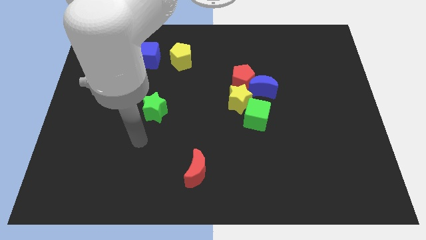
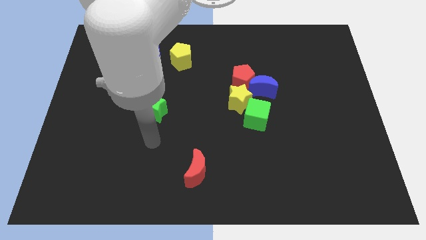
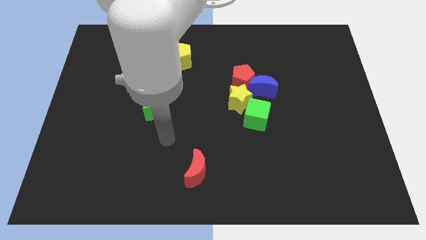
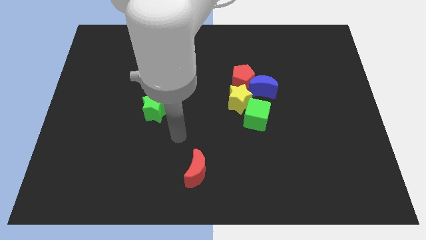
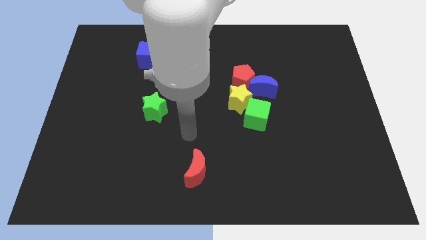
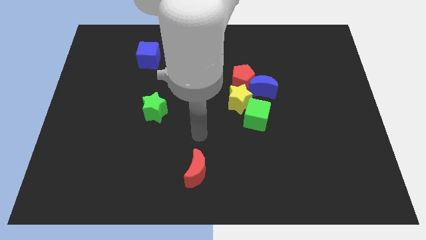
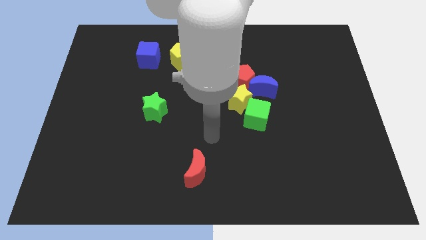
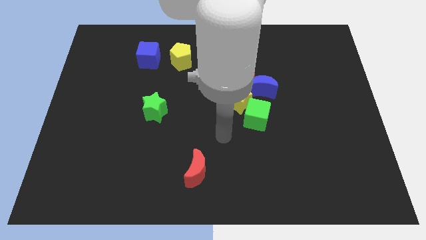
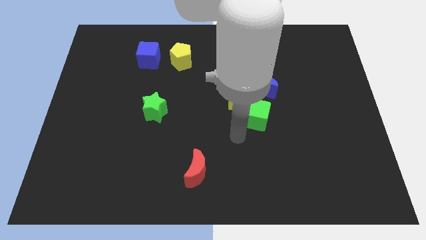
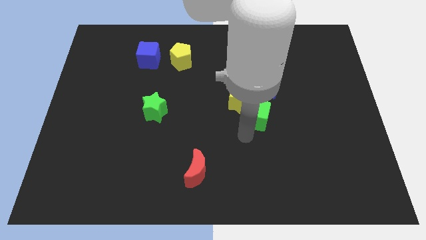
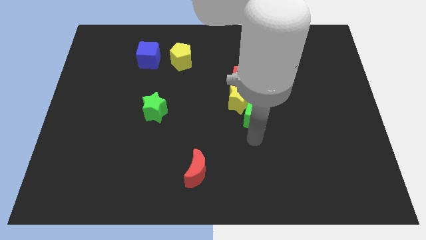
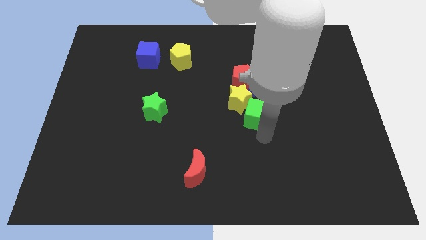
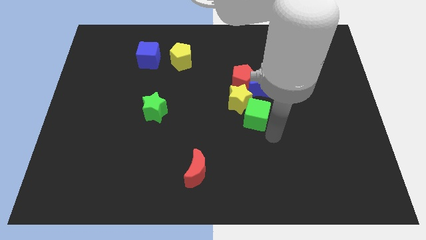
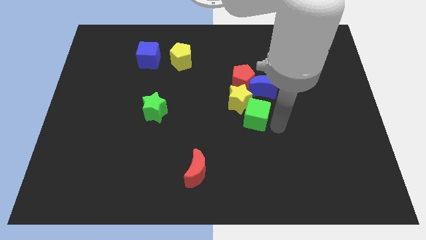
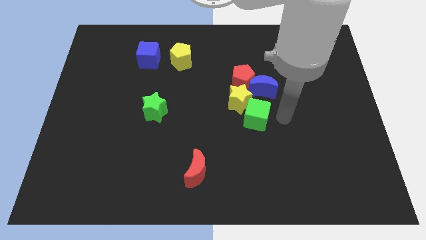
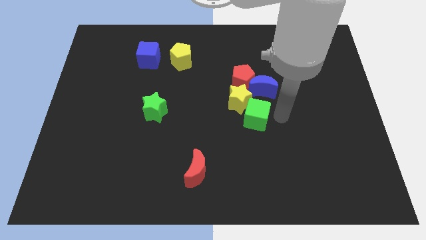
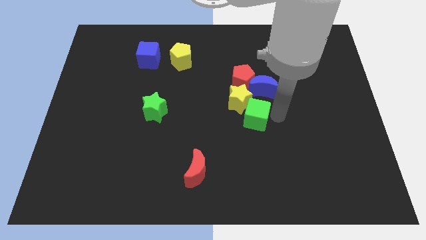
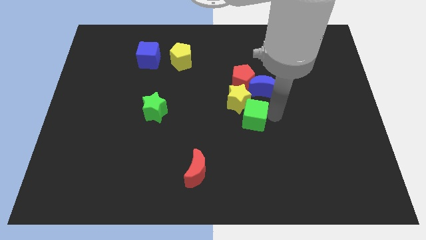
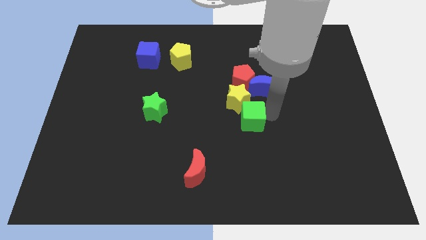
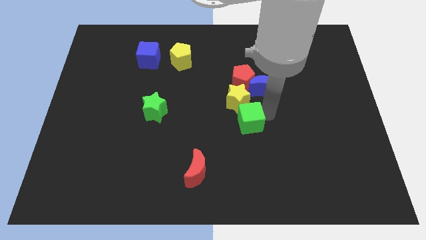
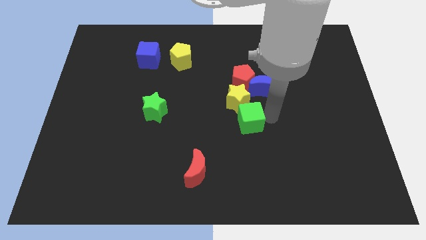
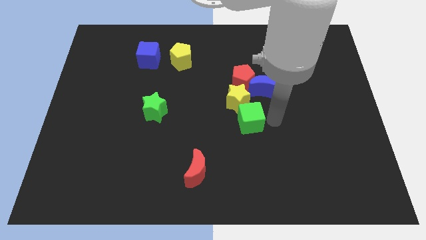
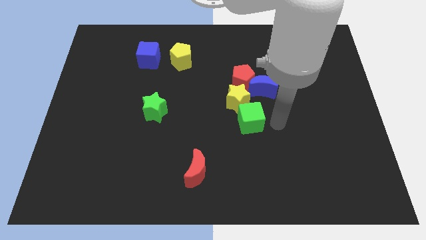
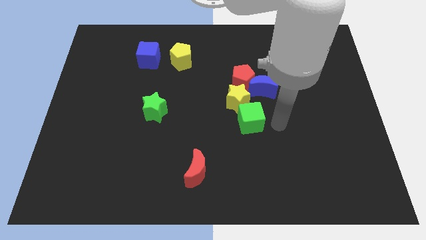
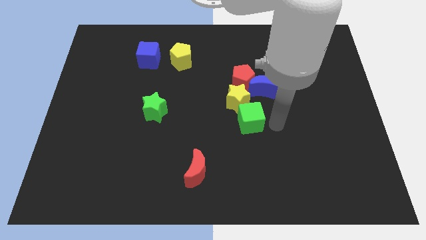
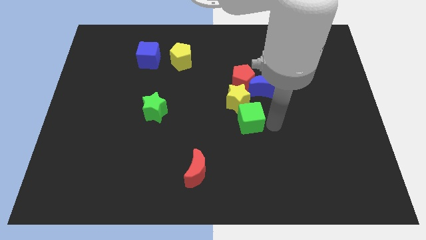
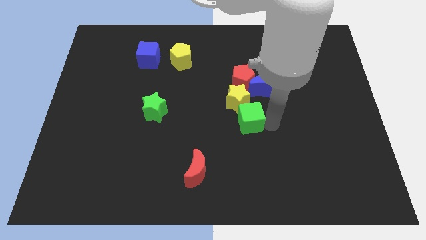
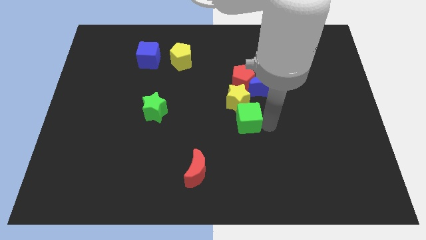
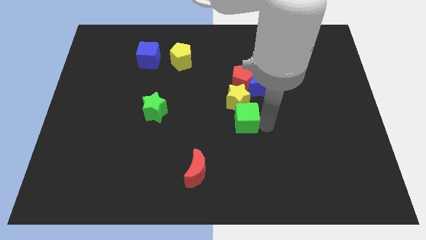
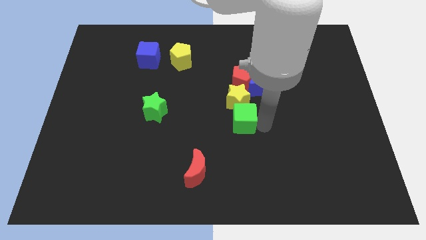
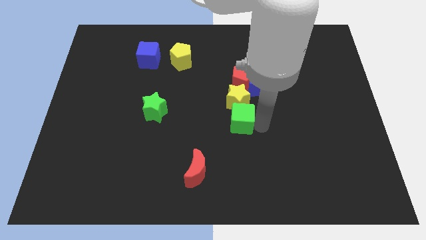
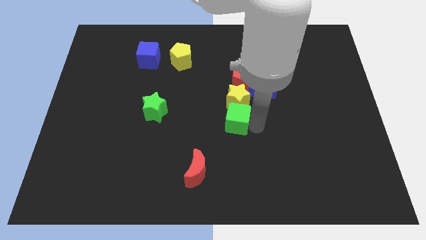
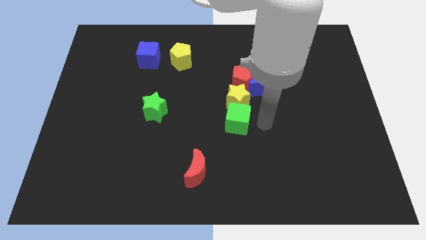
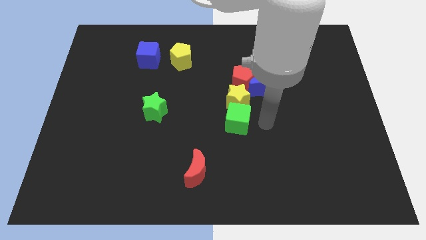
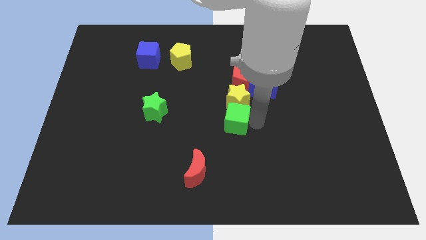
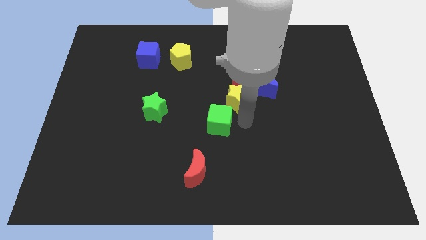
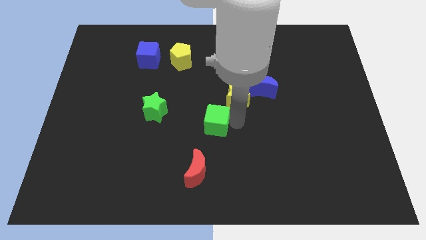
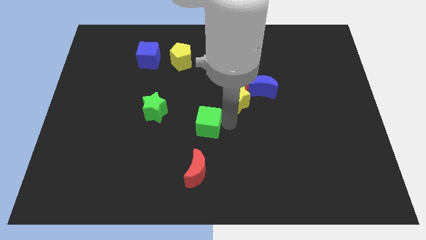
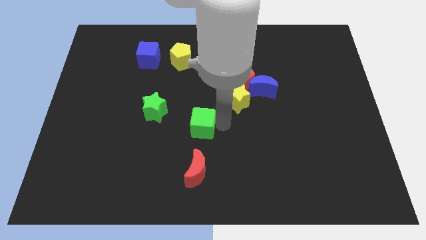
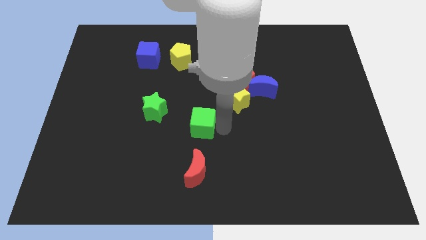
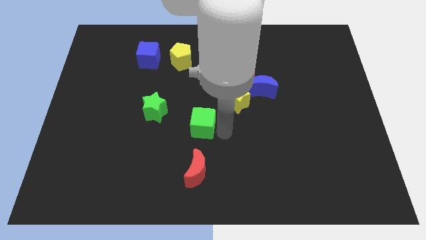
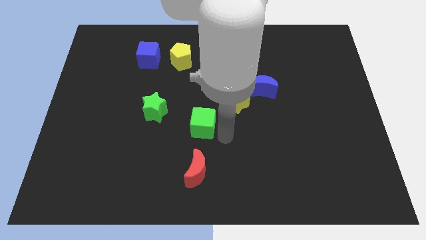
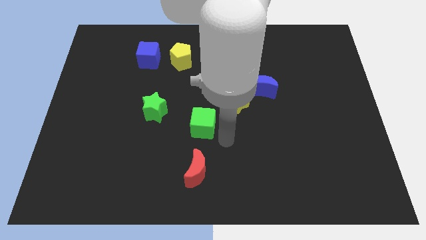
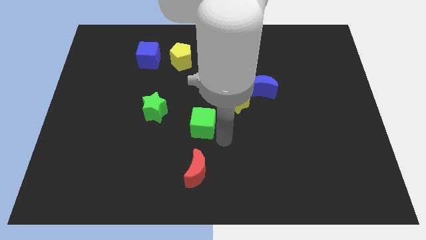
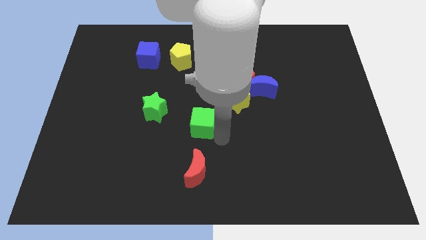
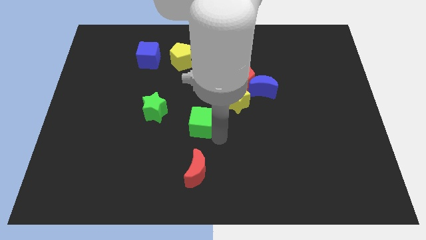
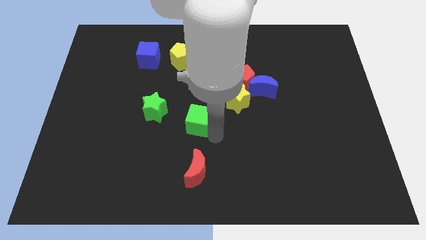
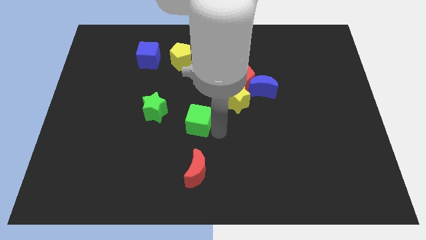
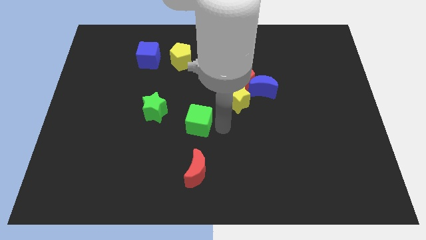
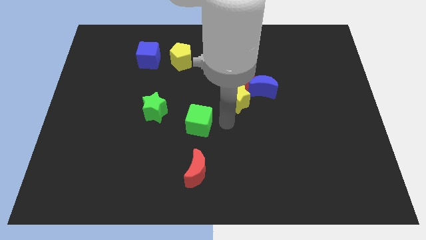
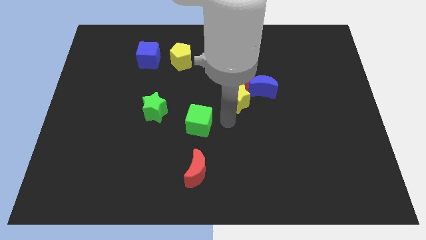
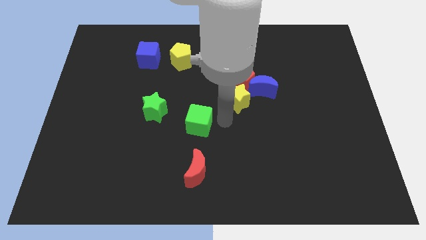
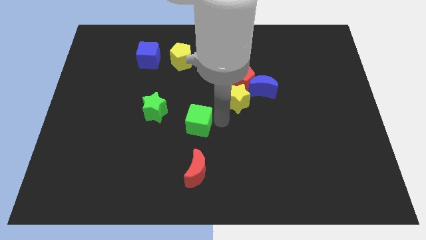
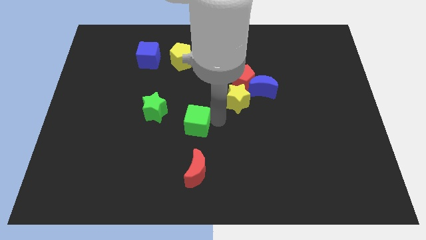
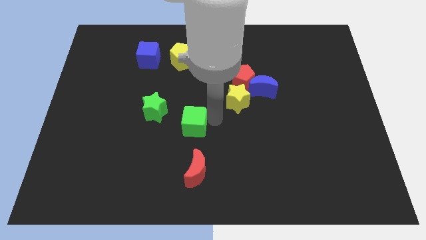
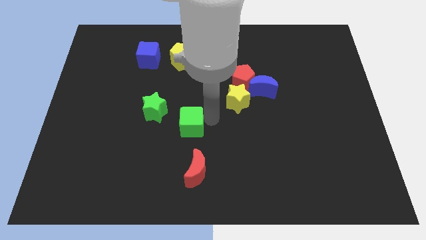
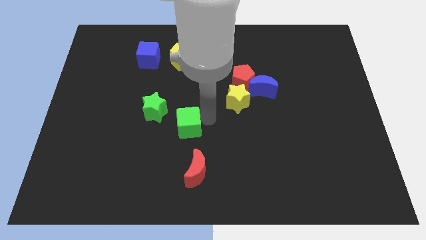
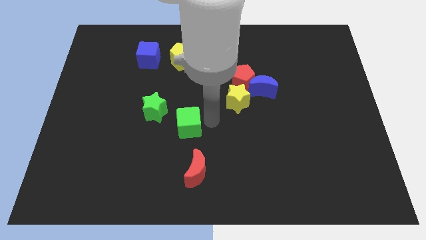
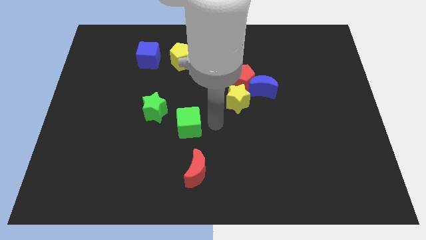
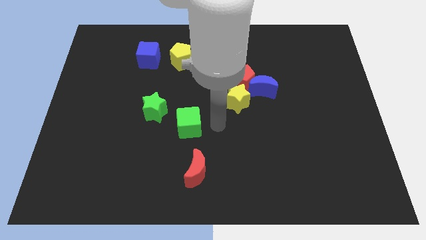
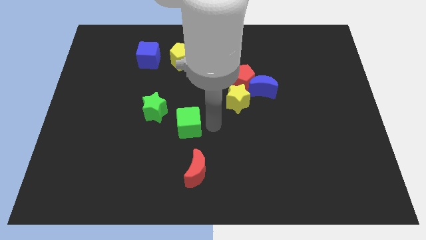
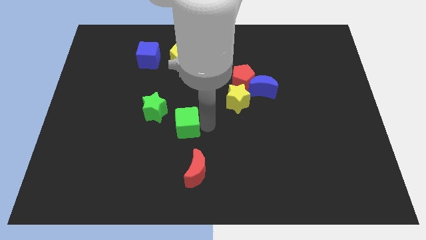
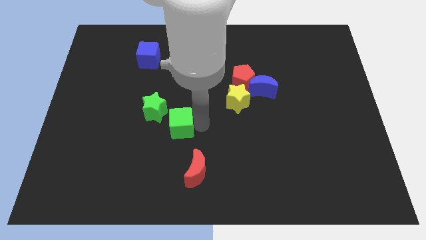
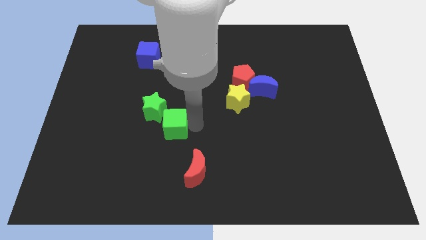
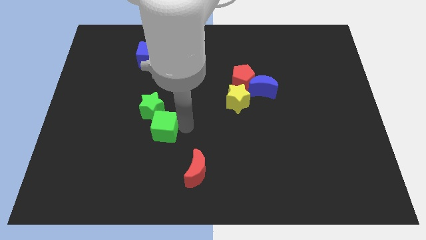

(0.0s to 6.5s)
move the green cube to the left

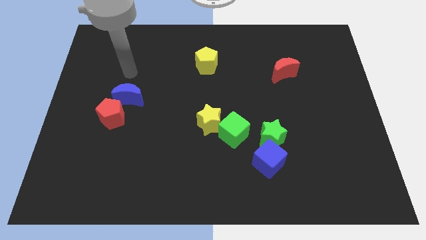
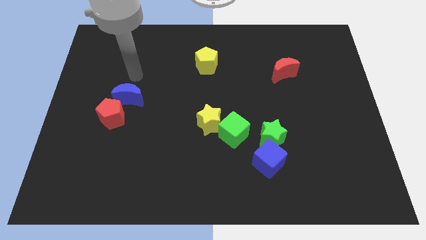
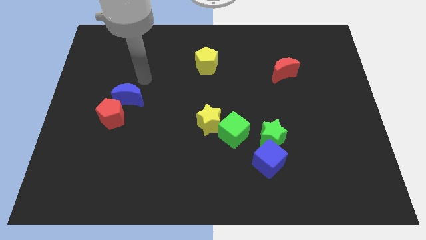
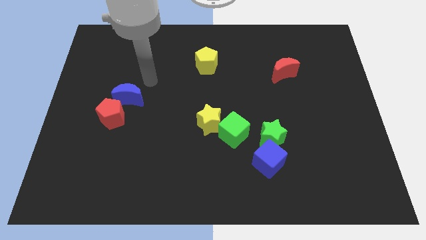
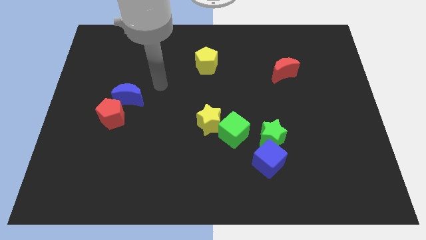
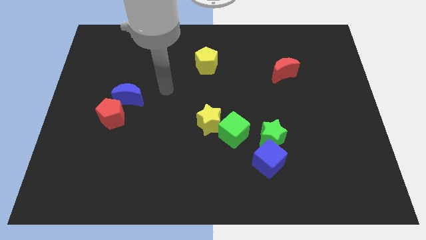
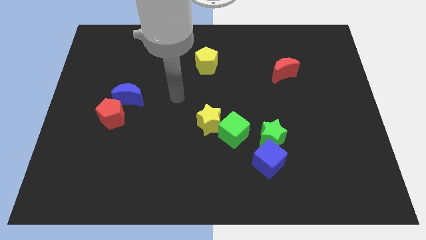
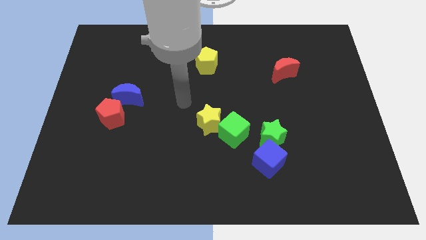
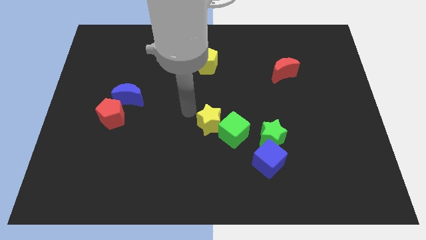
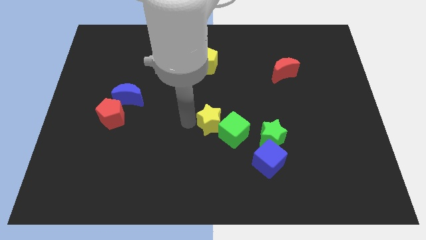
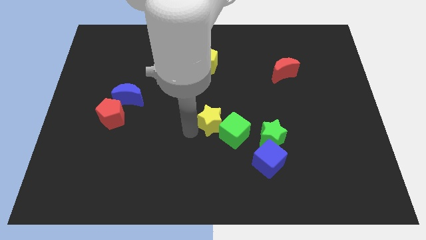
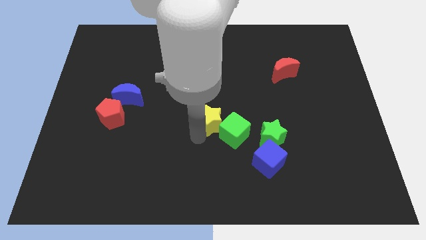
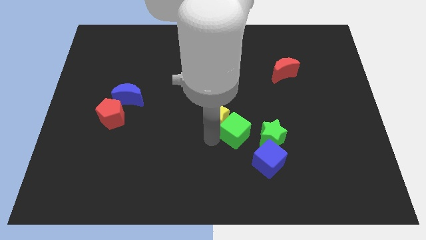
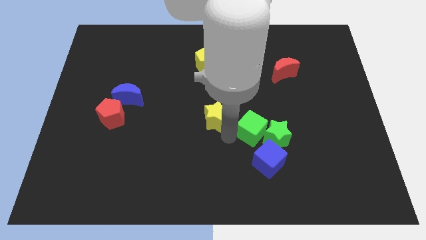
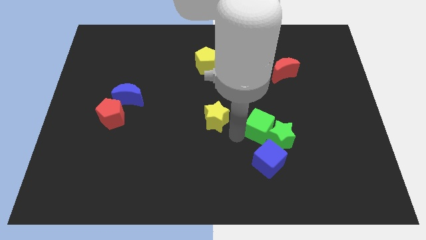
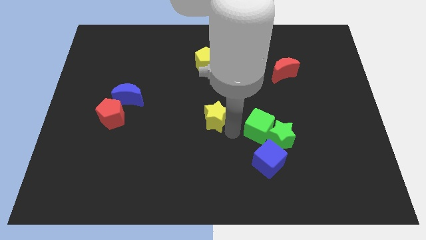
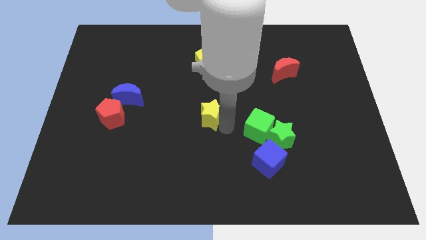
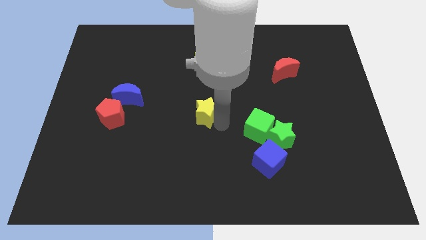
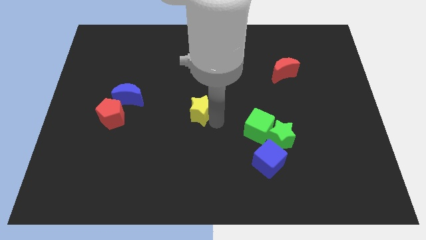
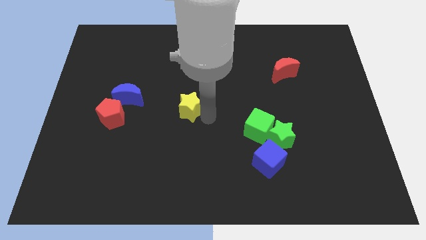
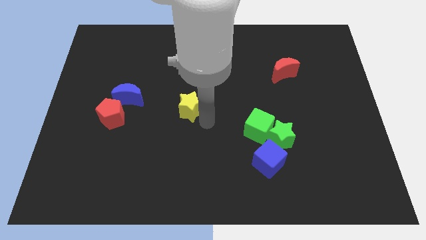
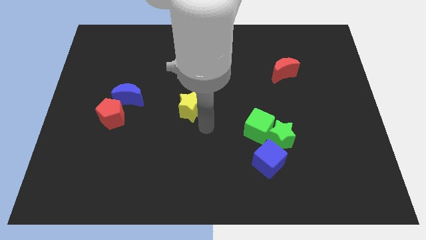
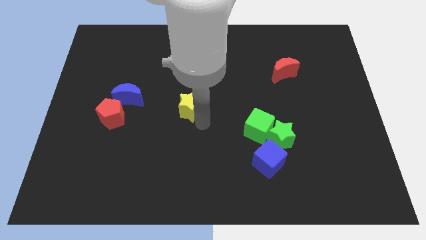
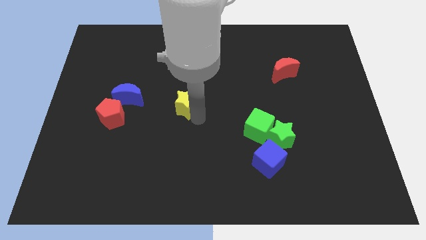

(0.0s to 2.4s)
slightly slide the yellow star upwards and to the left diagonally
